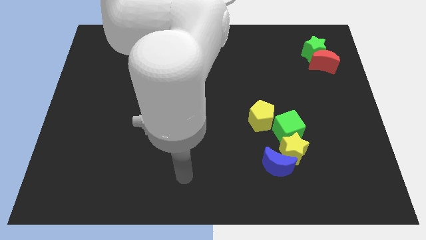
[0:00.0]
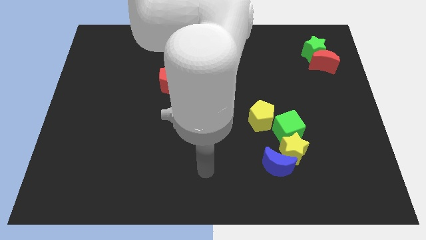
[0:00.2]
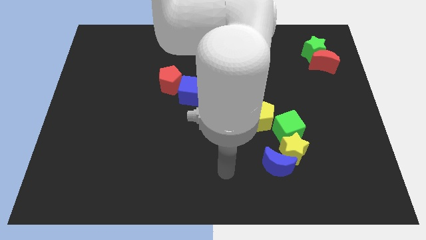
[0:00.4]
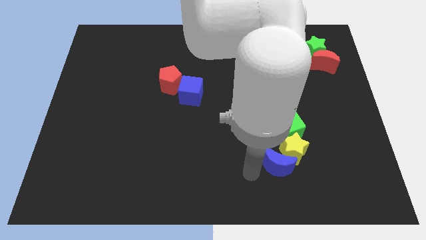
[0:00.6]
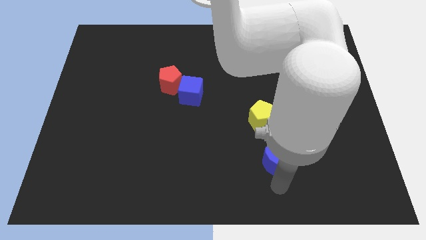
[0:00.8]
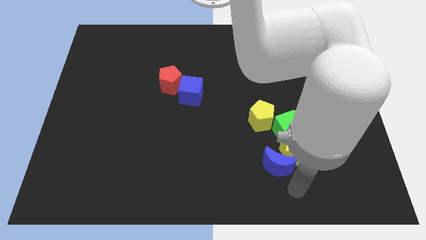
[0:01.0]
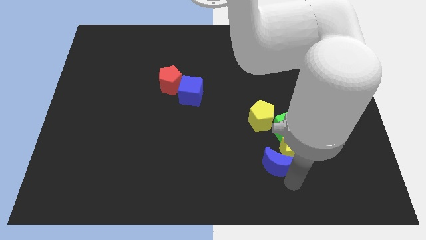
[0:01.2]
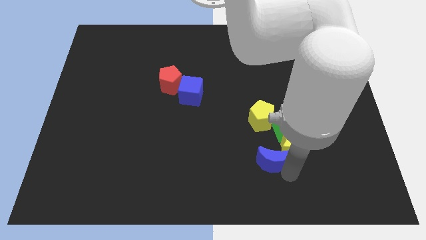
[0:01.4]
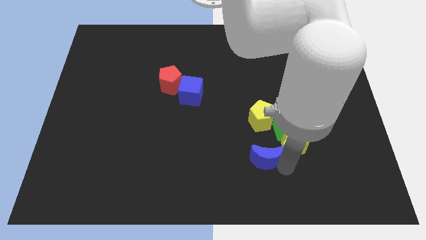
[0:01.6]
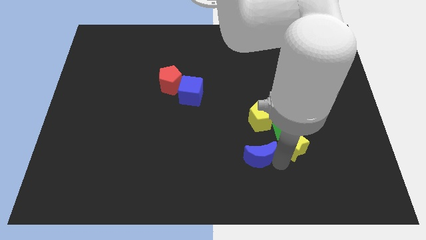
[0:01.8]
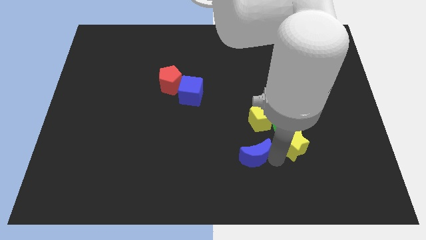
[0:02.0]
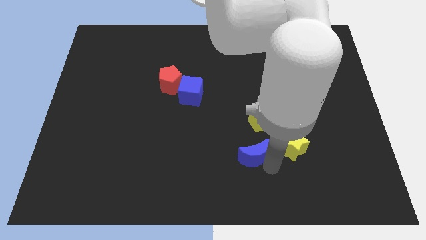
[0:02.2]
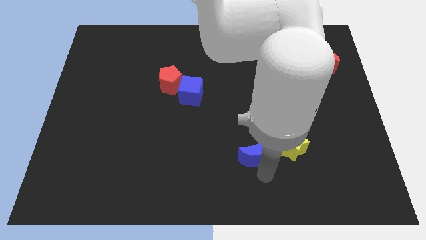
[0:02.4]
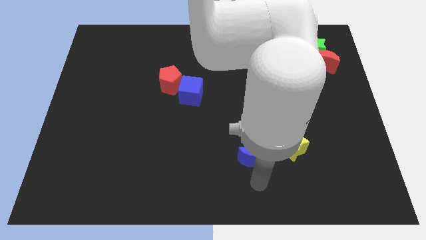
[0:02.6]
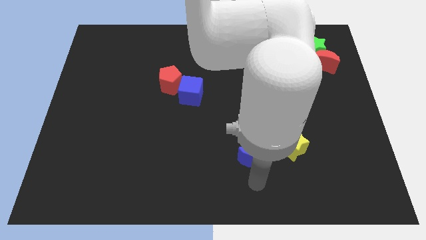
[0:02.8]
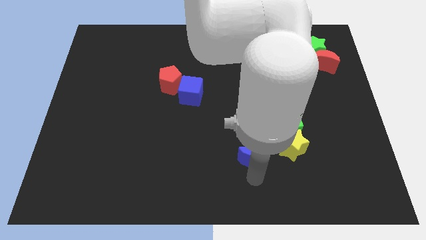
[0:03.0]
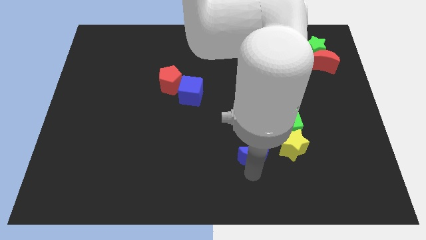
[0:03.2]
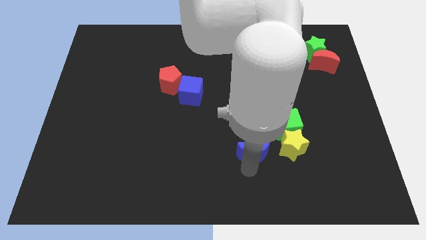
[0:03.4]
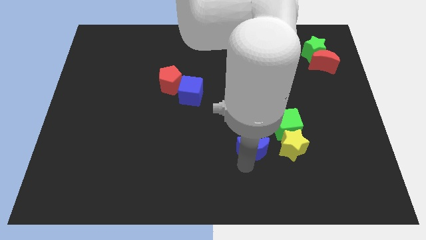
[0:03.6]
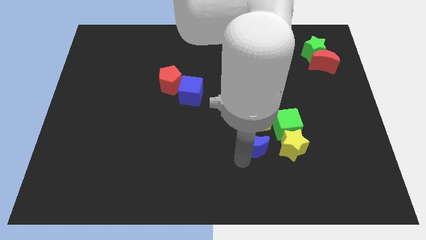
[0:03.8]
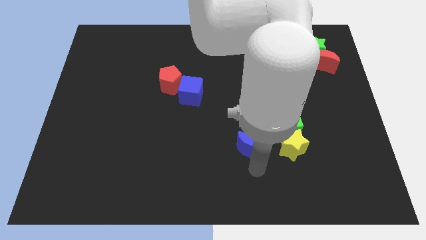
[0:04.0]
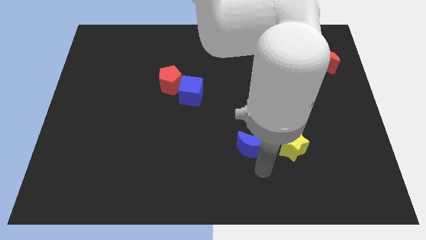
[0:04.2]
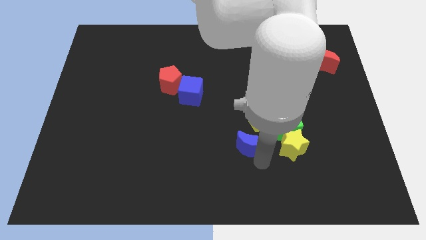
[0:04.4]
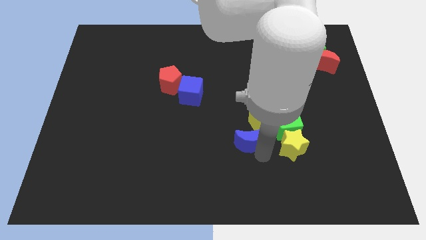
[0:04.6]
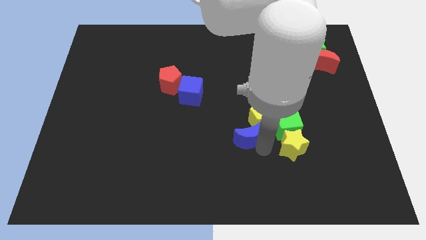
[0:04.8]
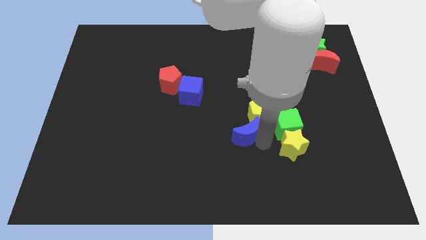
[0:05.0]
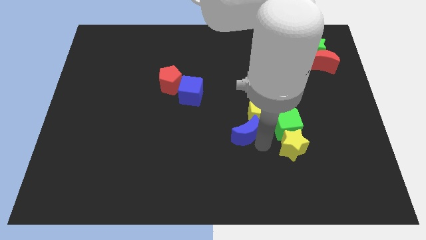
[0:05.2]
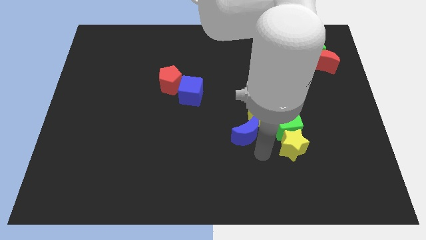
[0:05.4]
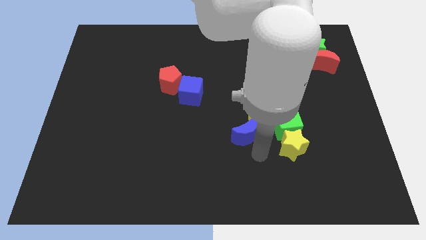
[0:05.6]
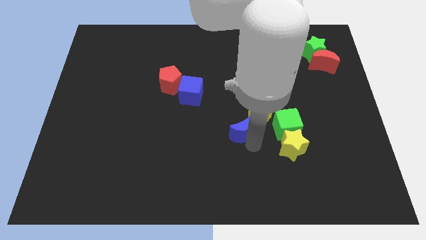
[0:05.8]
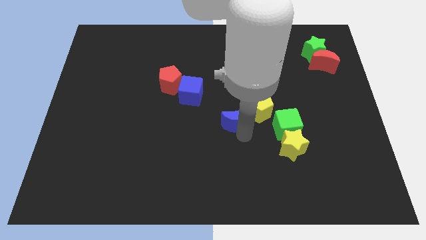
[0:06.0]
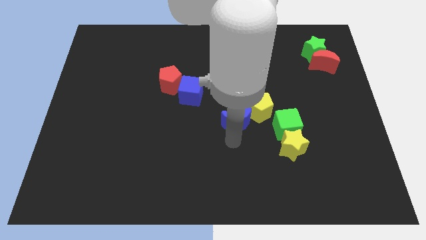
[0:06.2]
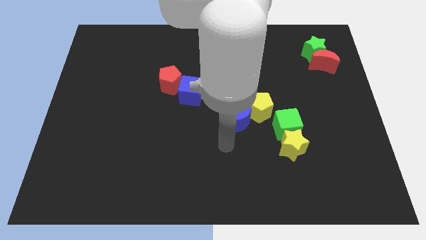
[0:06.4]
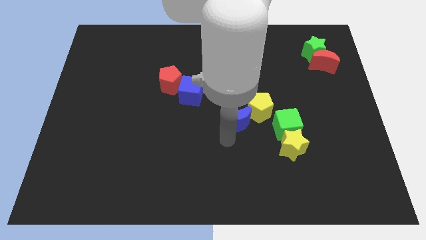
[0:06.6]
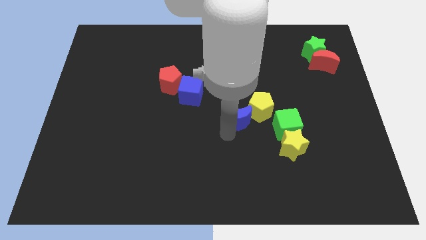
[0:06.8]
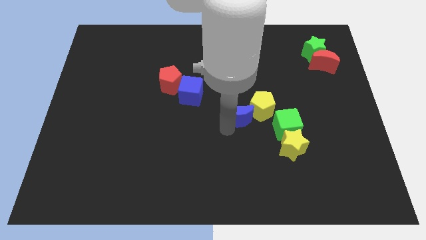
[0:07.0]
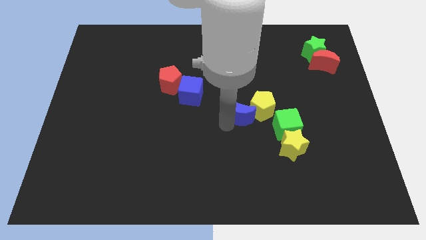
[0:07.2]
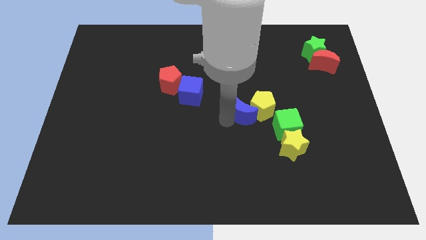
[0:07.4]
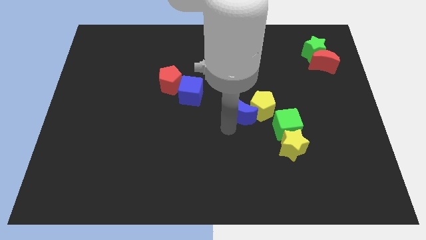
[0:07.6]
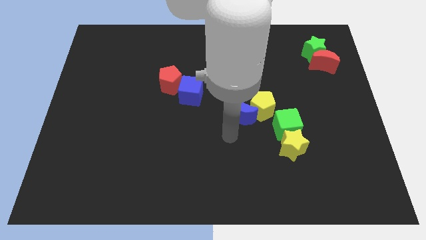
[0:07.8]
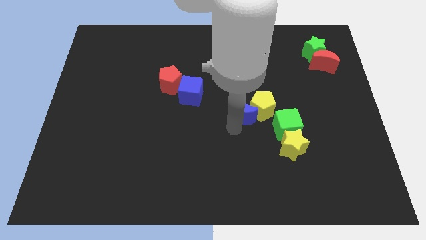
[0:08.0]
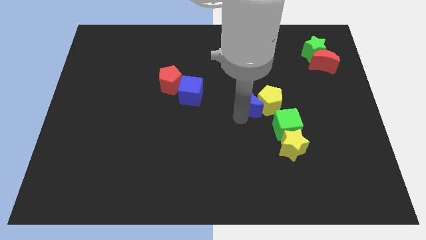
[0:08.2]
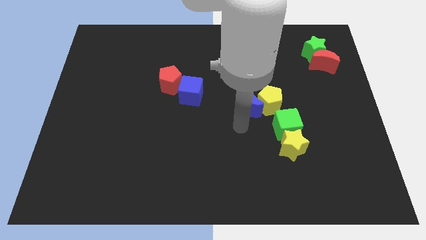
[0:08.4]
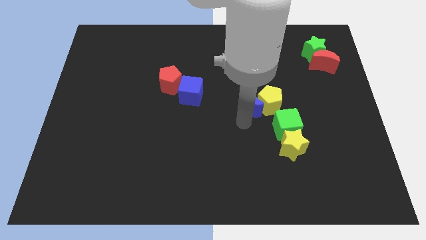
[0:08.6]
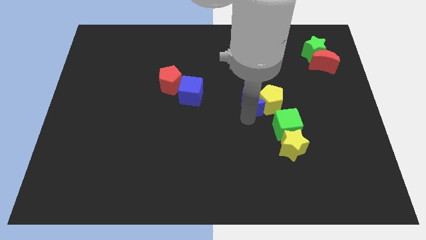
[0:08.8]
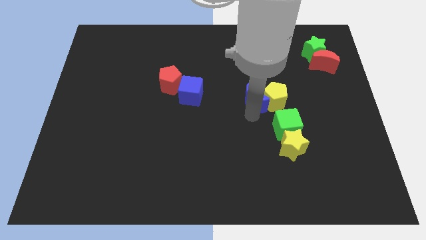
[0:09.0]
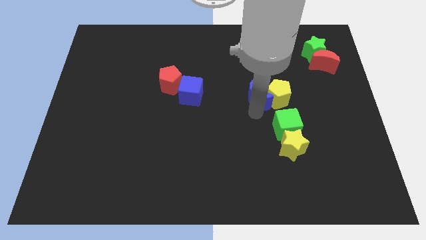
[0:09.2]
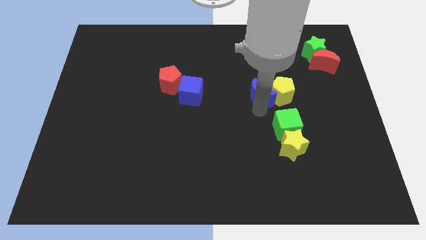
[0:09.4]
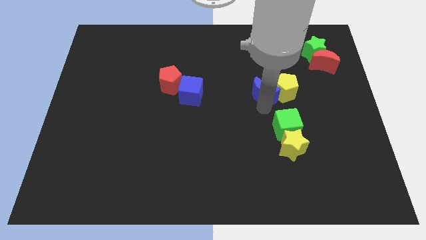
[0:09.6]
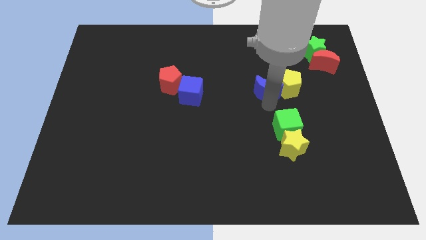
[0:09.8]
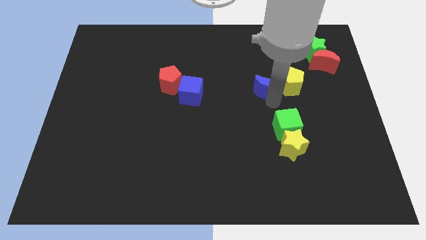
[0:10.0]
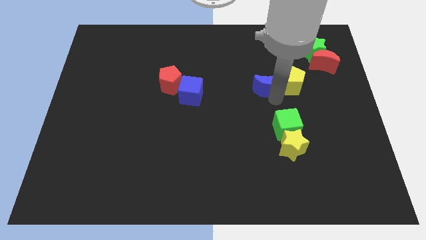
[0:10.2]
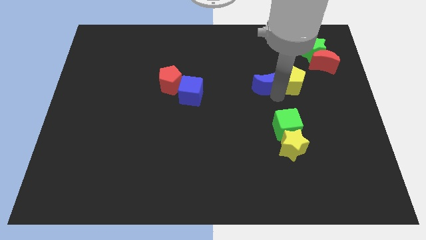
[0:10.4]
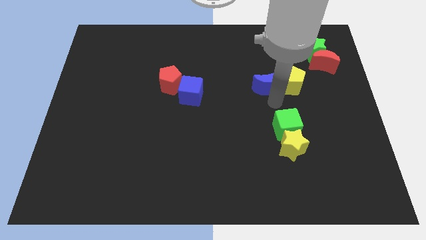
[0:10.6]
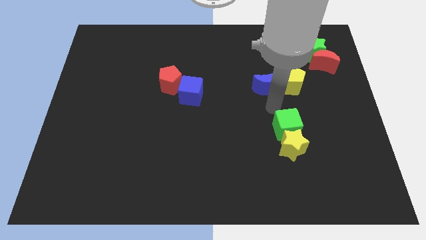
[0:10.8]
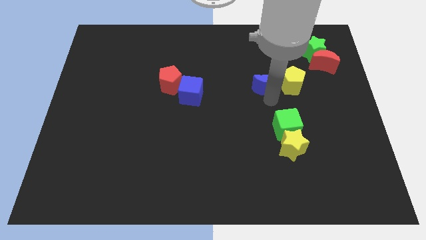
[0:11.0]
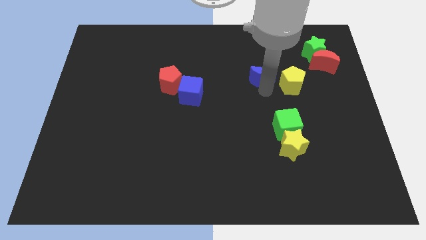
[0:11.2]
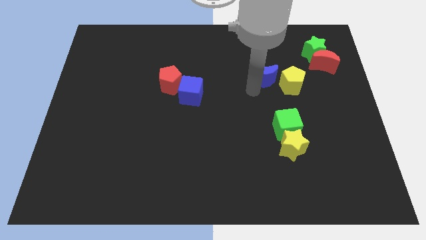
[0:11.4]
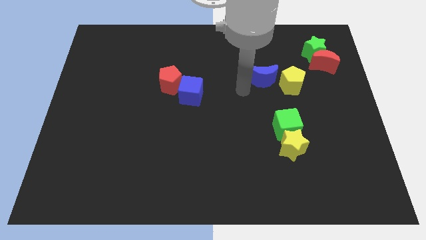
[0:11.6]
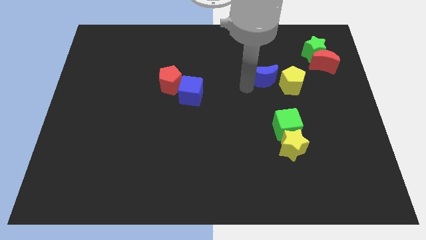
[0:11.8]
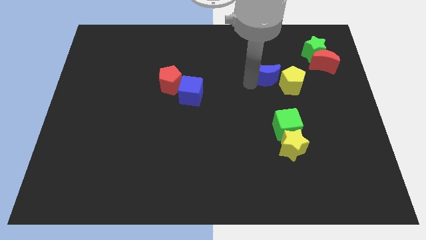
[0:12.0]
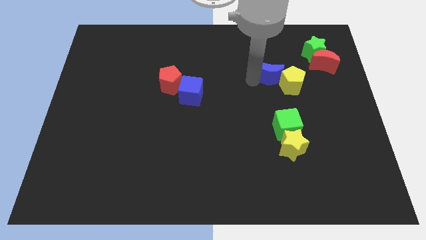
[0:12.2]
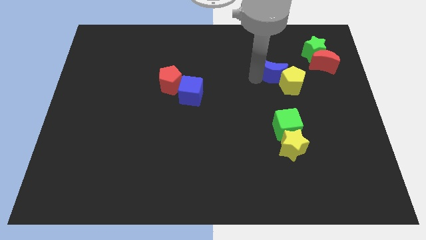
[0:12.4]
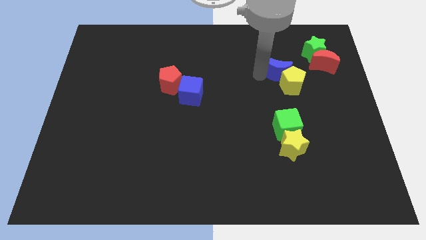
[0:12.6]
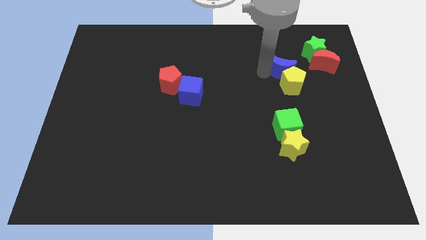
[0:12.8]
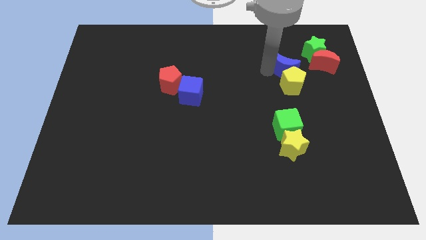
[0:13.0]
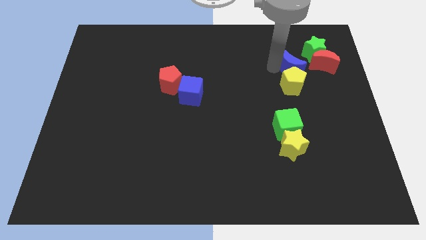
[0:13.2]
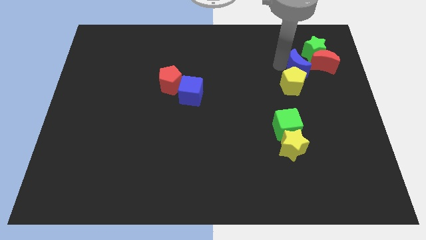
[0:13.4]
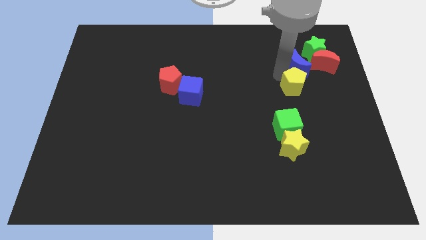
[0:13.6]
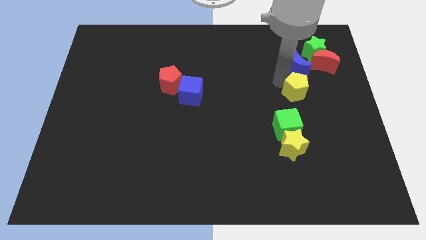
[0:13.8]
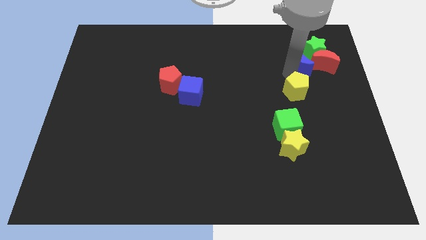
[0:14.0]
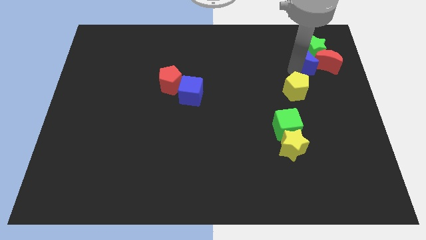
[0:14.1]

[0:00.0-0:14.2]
put the blue moon next to the green star

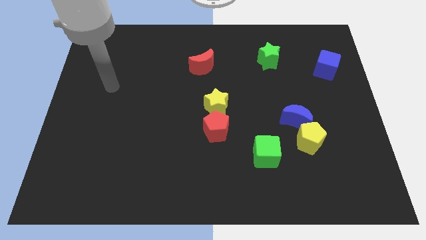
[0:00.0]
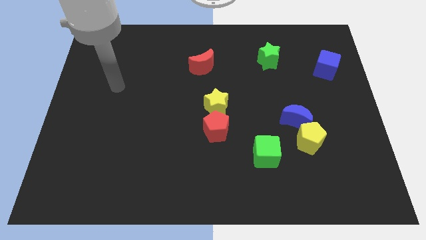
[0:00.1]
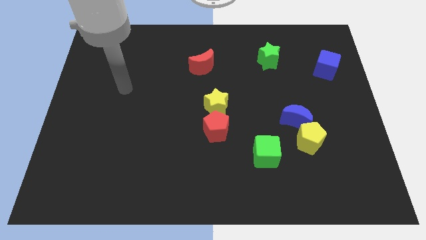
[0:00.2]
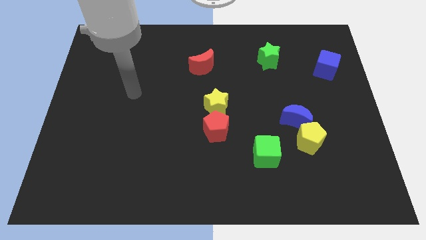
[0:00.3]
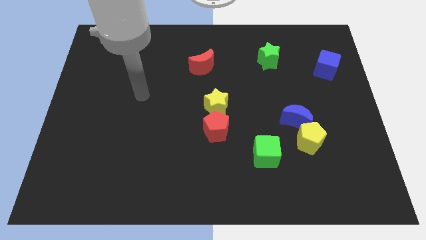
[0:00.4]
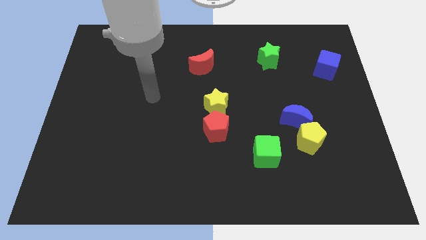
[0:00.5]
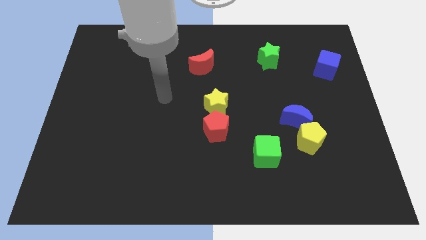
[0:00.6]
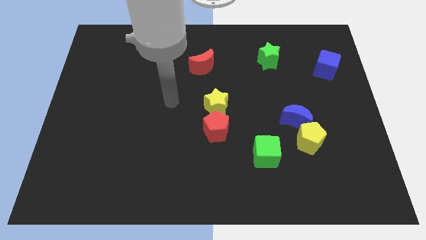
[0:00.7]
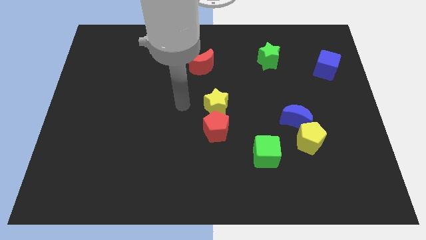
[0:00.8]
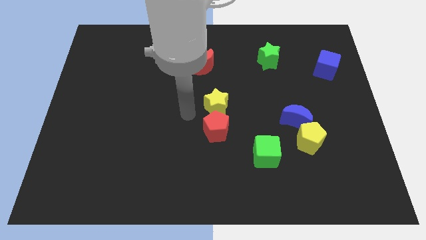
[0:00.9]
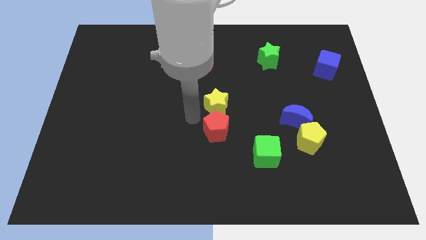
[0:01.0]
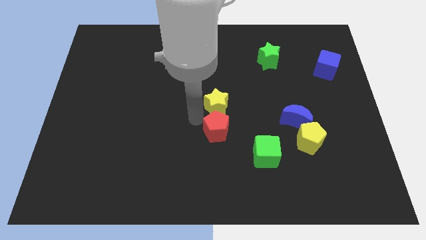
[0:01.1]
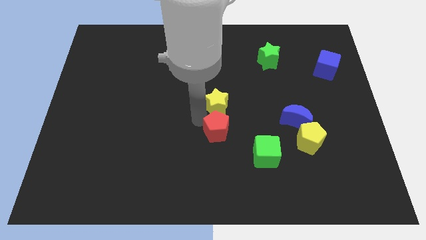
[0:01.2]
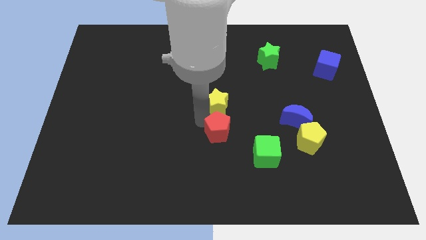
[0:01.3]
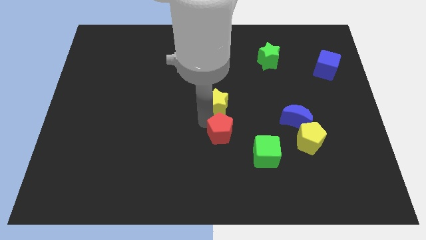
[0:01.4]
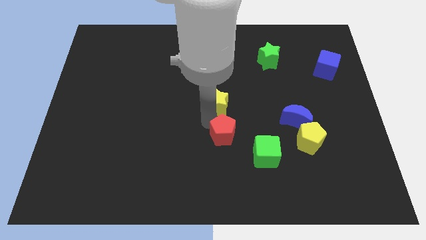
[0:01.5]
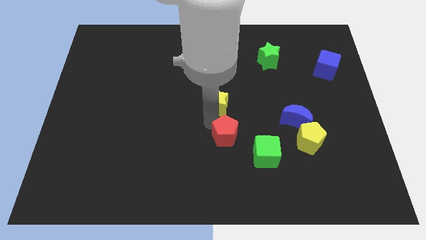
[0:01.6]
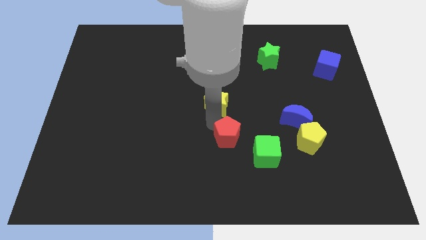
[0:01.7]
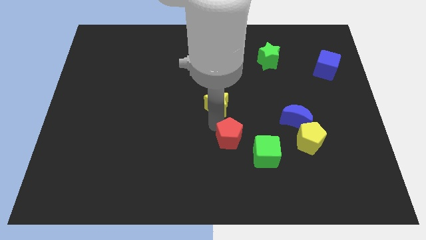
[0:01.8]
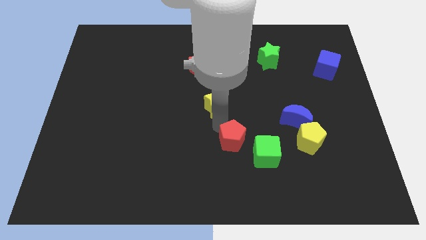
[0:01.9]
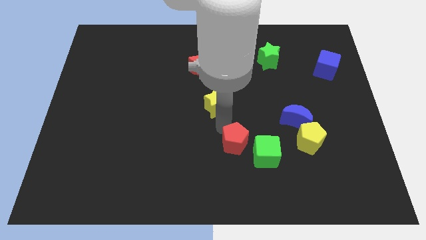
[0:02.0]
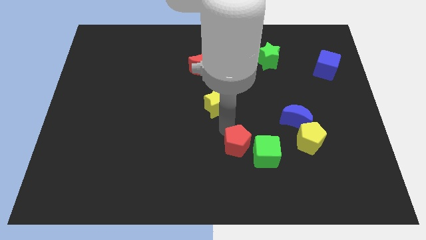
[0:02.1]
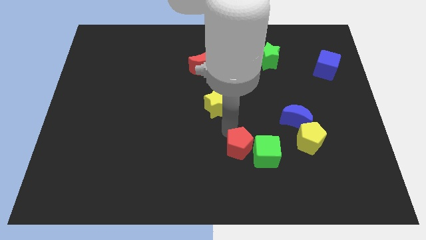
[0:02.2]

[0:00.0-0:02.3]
put the red pentagon to the green cube
